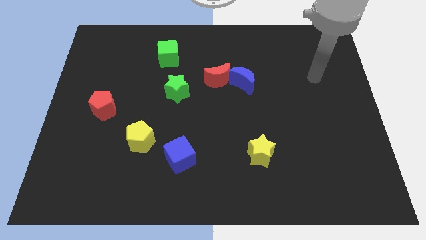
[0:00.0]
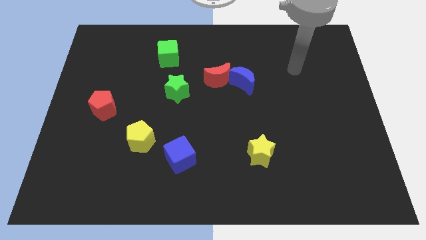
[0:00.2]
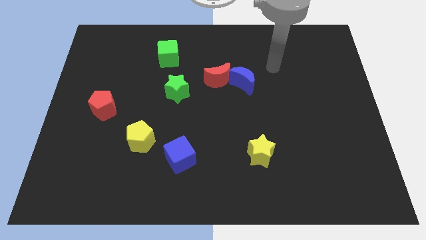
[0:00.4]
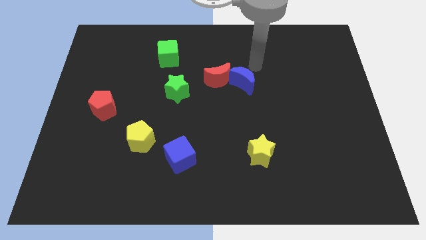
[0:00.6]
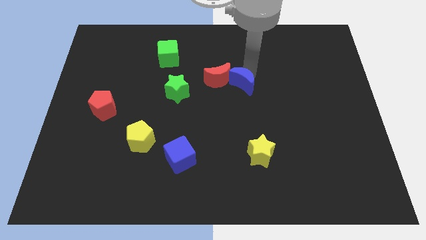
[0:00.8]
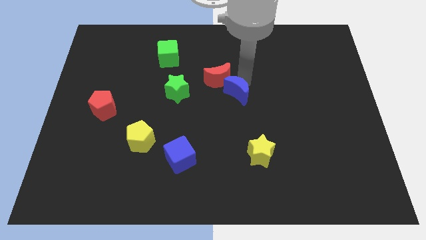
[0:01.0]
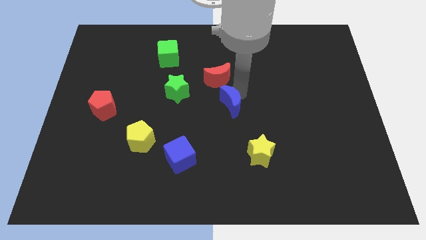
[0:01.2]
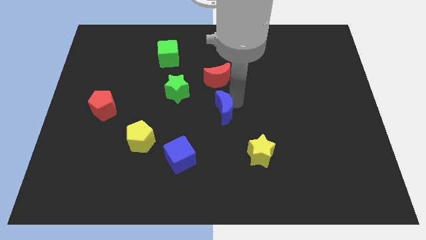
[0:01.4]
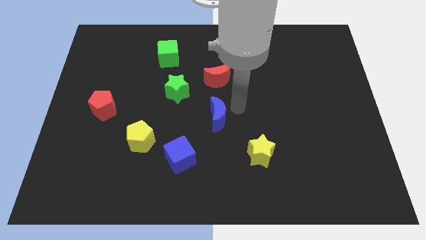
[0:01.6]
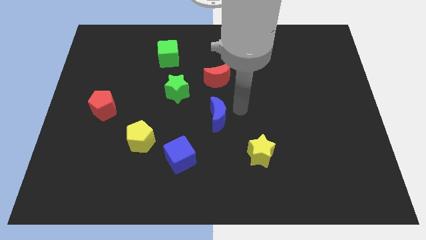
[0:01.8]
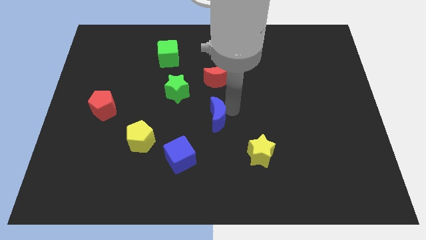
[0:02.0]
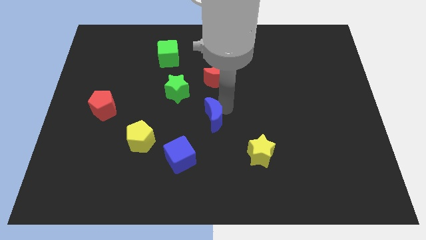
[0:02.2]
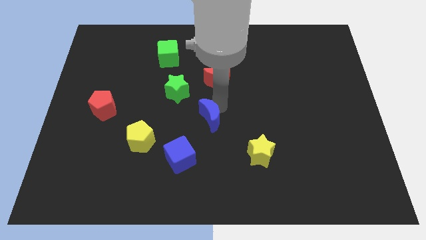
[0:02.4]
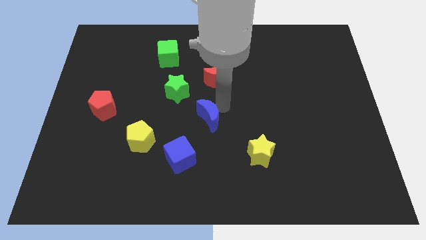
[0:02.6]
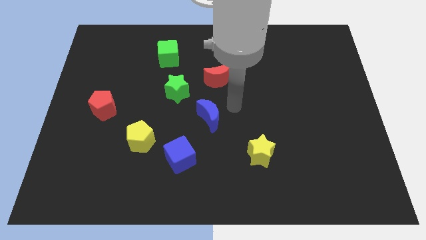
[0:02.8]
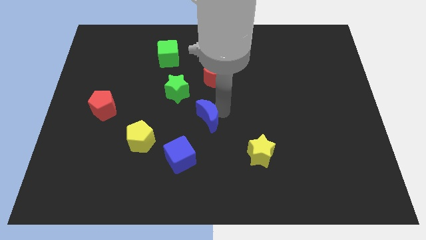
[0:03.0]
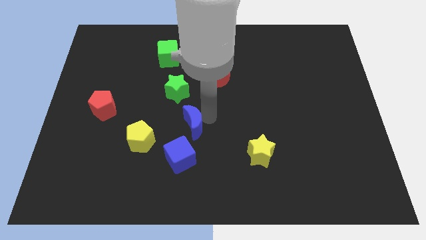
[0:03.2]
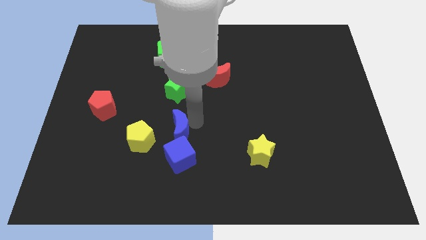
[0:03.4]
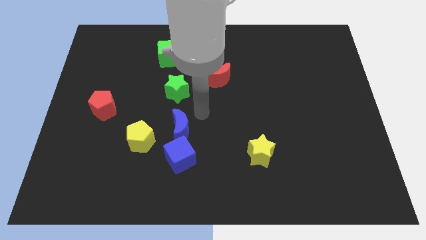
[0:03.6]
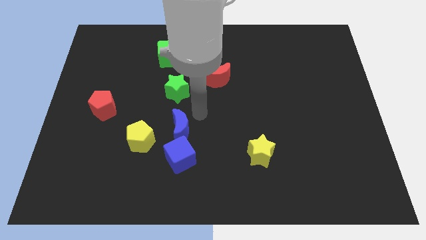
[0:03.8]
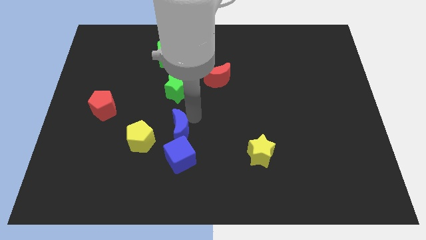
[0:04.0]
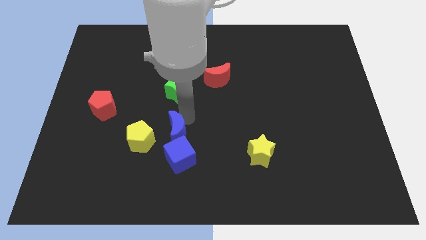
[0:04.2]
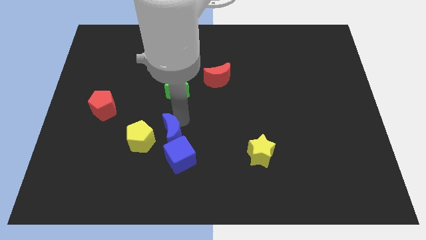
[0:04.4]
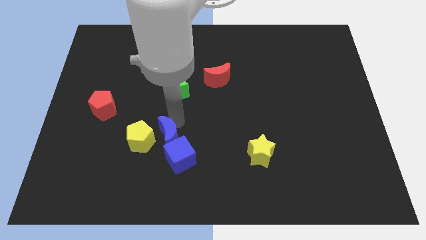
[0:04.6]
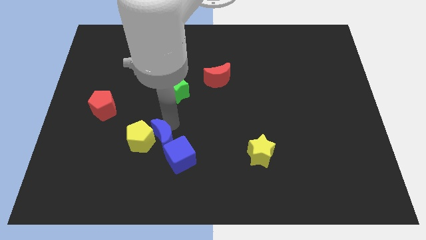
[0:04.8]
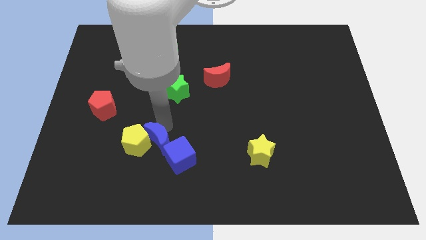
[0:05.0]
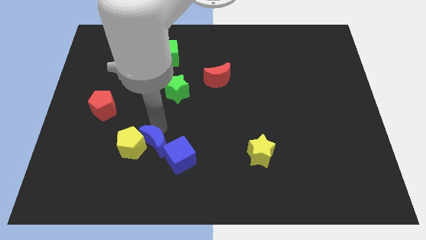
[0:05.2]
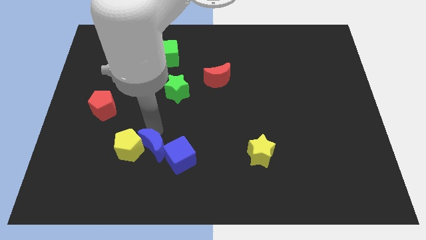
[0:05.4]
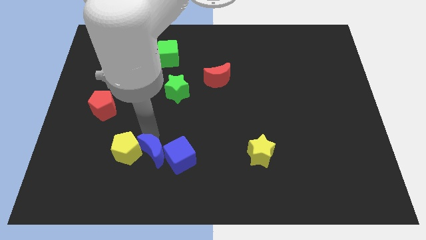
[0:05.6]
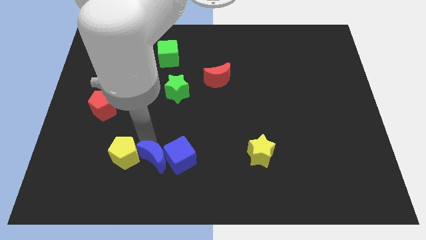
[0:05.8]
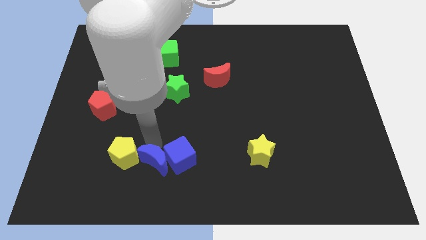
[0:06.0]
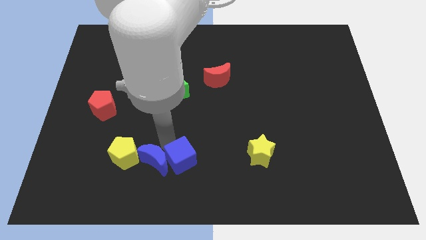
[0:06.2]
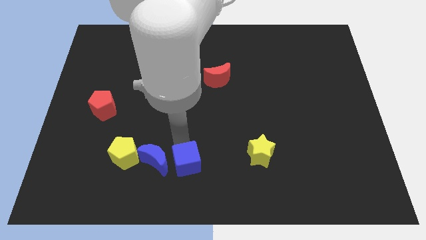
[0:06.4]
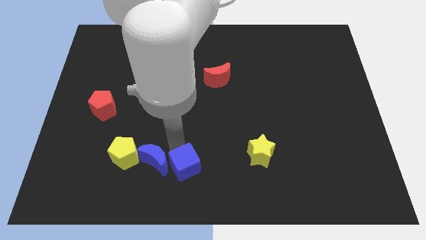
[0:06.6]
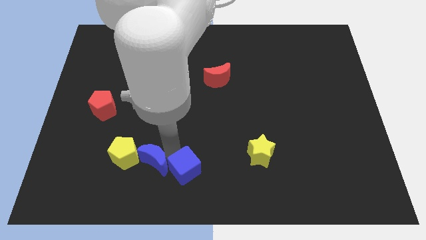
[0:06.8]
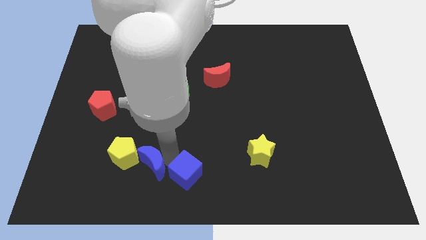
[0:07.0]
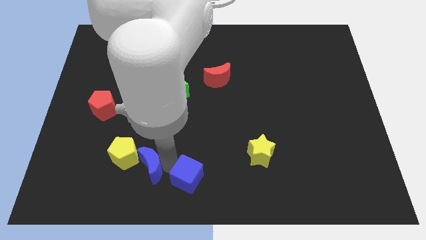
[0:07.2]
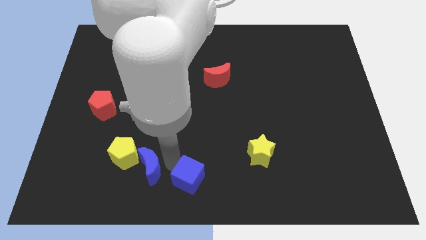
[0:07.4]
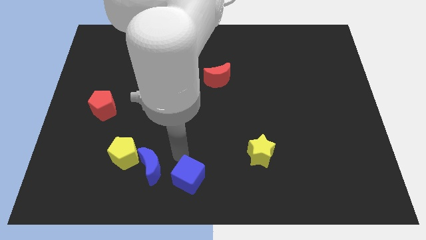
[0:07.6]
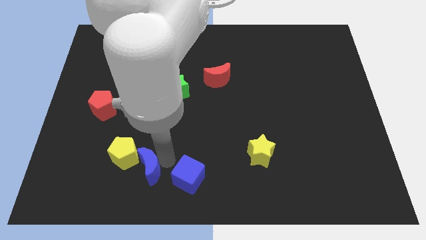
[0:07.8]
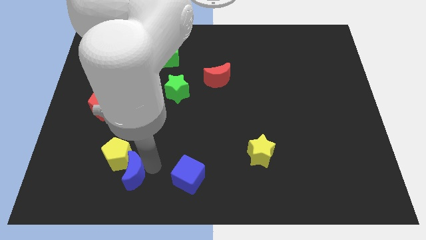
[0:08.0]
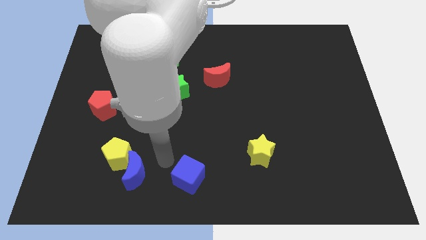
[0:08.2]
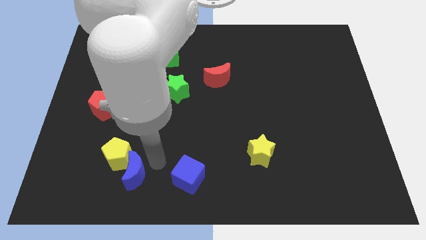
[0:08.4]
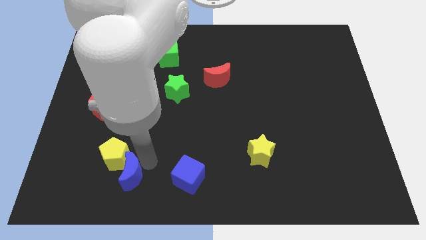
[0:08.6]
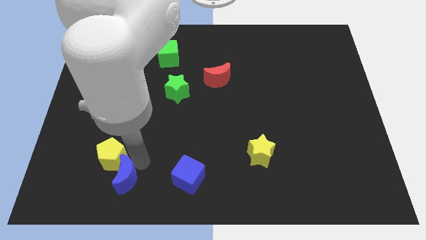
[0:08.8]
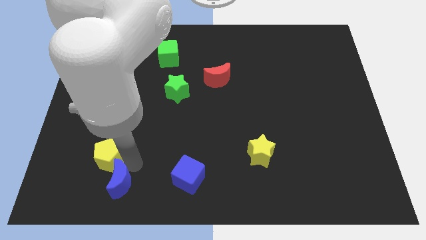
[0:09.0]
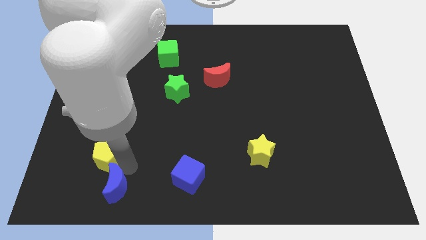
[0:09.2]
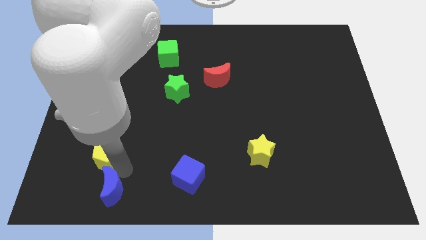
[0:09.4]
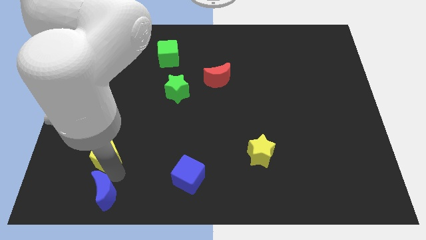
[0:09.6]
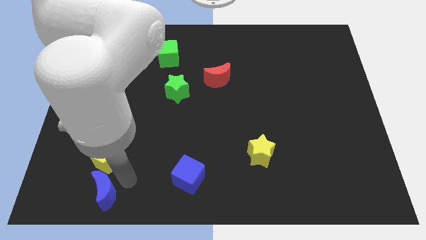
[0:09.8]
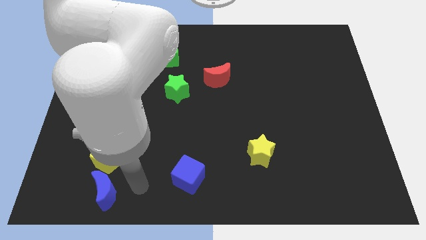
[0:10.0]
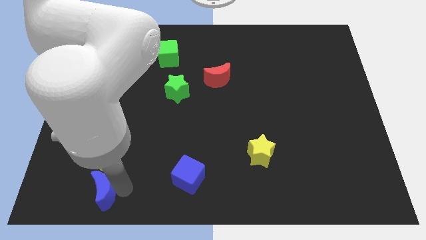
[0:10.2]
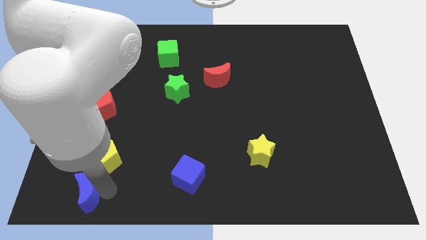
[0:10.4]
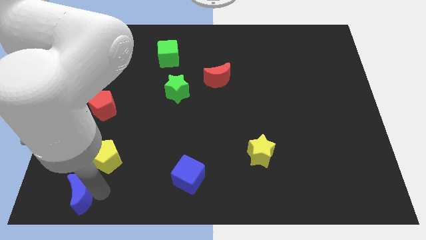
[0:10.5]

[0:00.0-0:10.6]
put the blue moon to the bottom left corner
